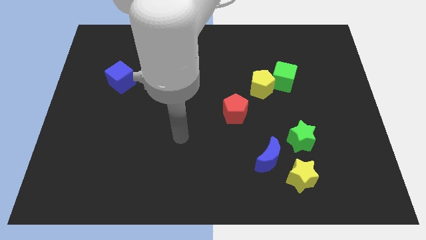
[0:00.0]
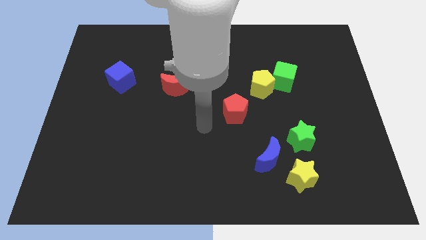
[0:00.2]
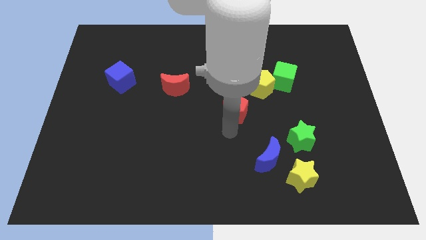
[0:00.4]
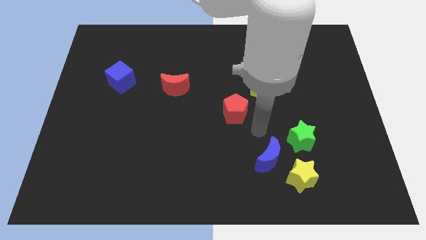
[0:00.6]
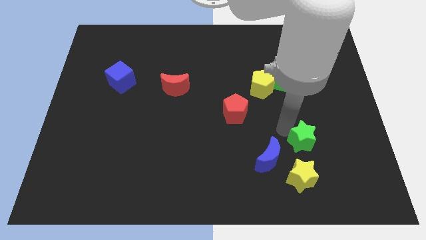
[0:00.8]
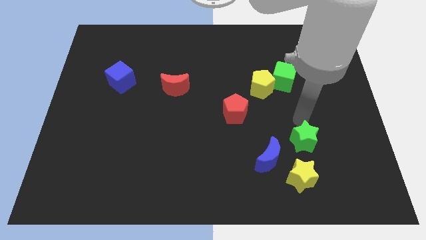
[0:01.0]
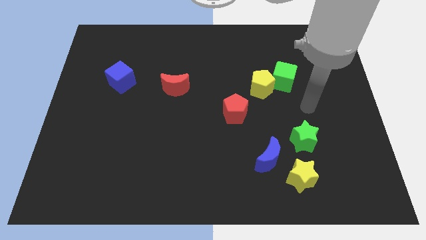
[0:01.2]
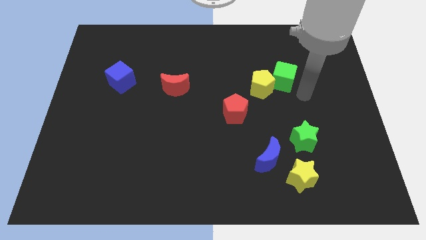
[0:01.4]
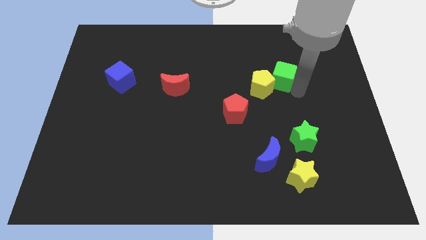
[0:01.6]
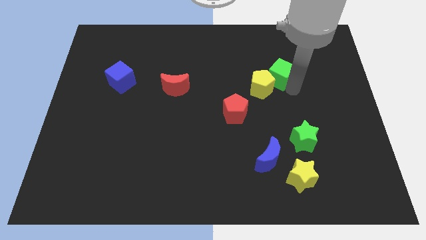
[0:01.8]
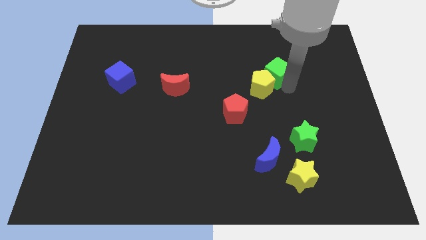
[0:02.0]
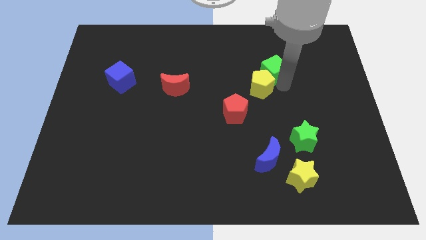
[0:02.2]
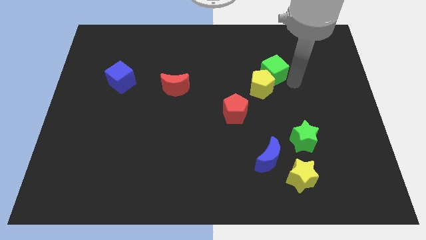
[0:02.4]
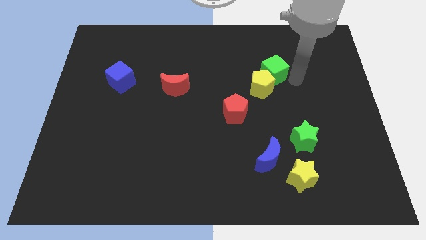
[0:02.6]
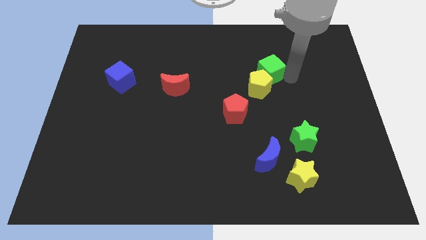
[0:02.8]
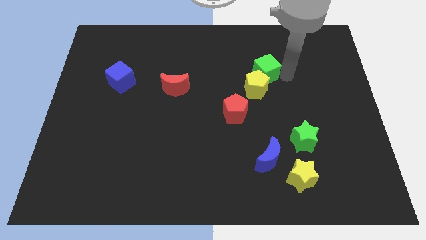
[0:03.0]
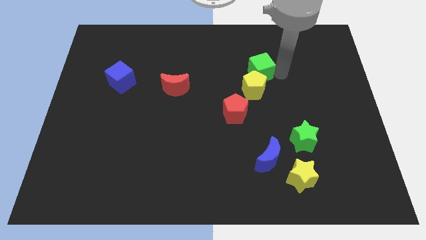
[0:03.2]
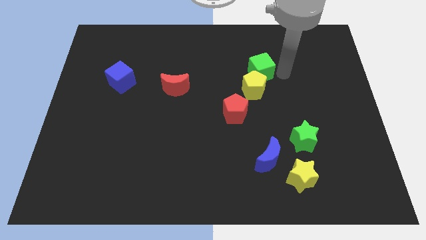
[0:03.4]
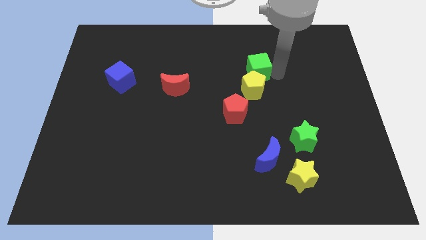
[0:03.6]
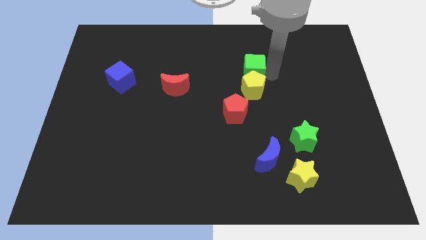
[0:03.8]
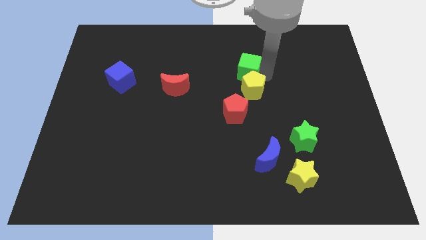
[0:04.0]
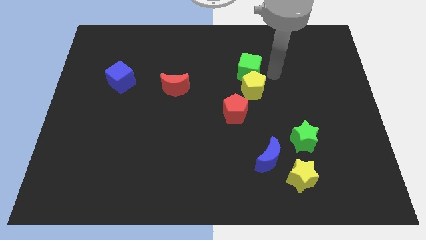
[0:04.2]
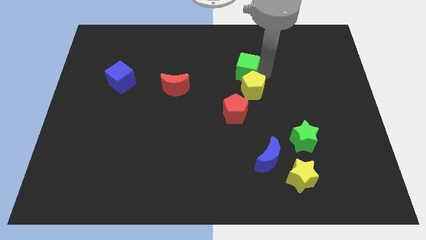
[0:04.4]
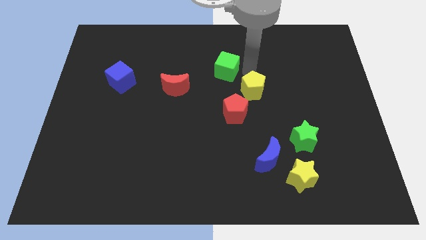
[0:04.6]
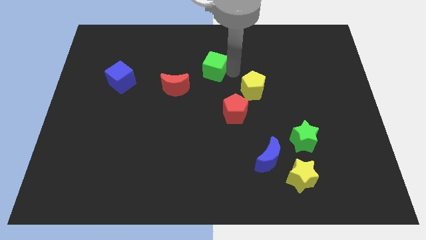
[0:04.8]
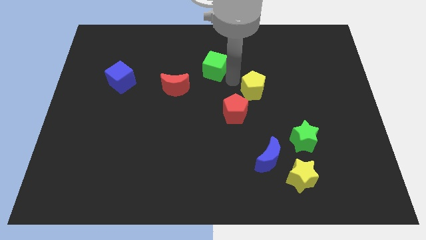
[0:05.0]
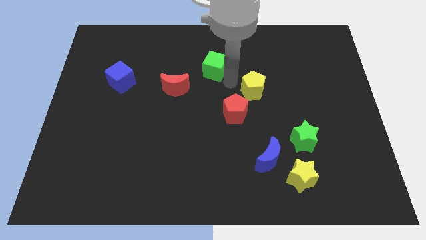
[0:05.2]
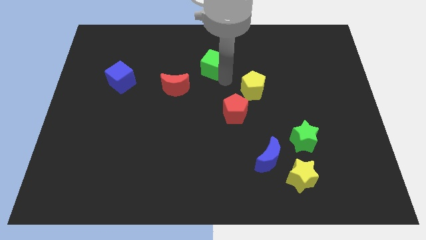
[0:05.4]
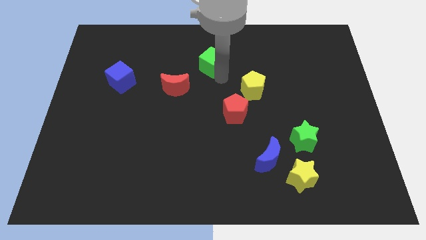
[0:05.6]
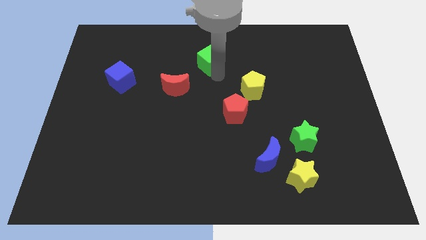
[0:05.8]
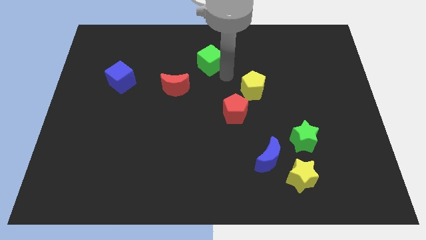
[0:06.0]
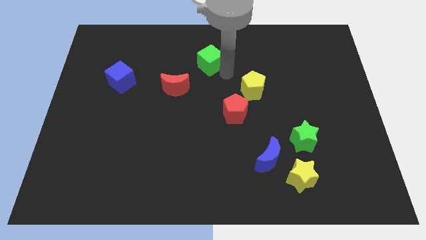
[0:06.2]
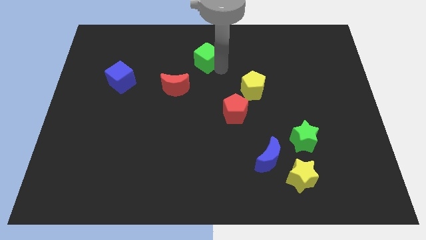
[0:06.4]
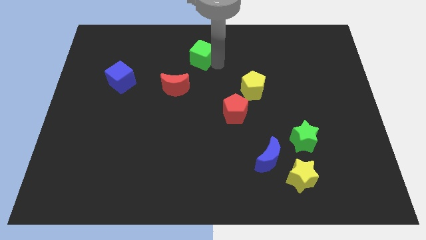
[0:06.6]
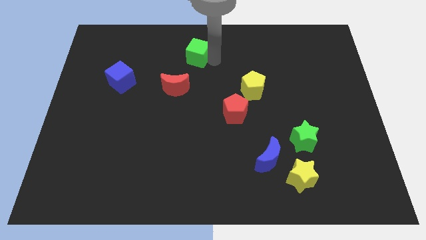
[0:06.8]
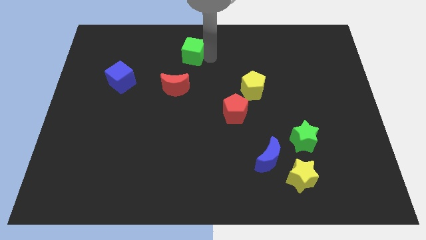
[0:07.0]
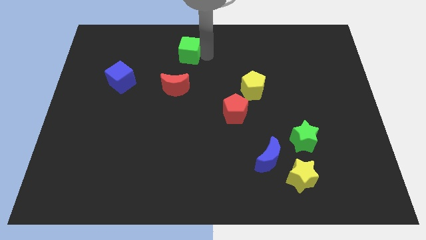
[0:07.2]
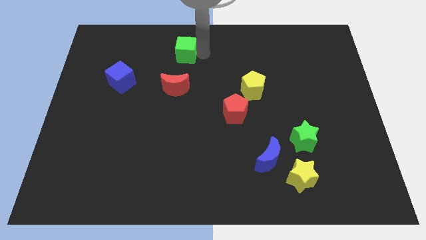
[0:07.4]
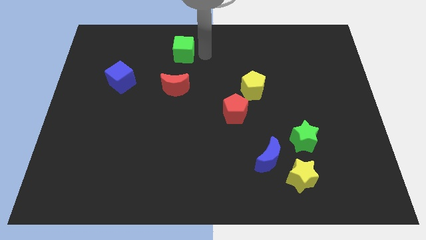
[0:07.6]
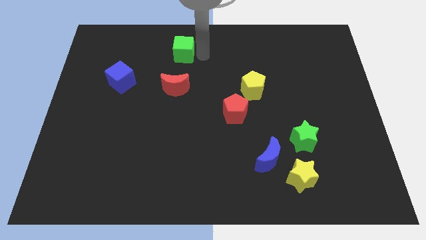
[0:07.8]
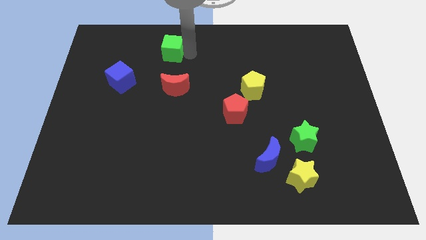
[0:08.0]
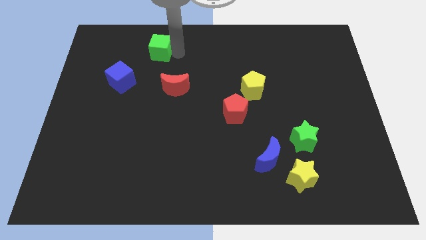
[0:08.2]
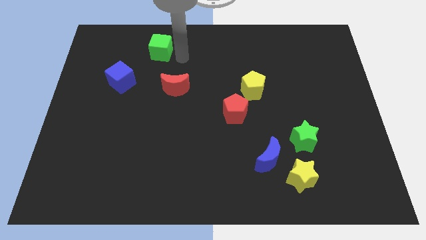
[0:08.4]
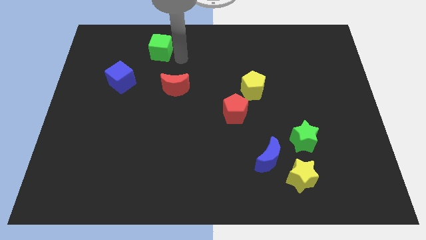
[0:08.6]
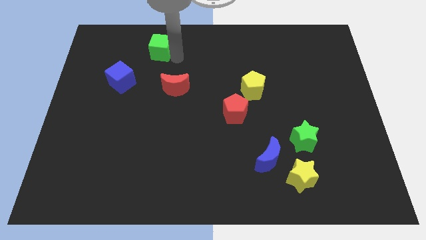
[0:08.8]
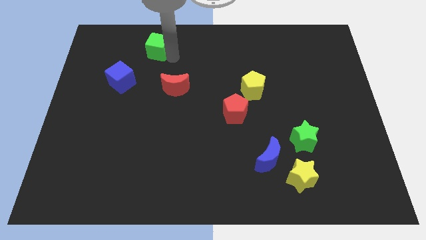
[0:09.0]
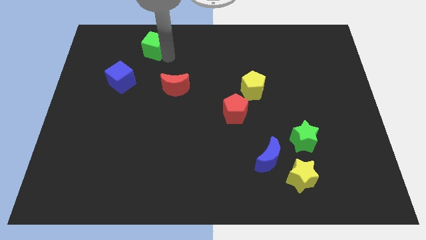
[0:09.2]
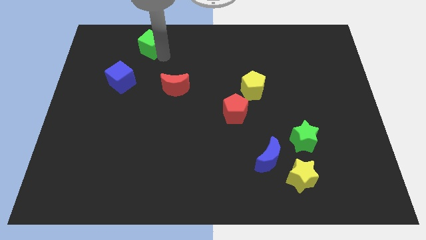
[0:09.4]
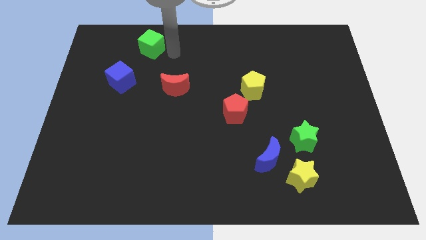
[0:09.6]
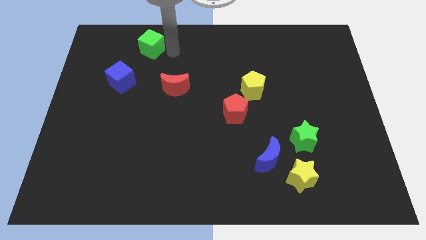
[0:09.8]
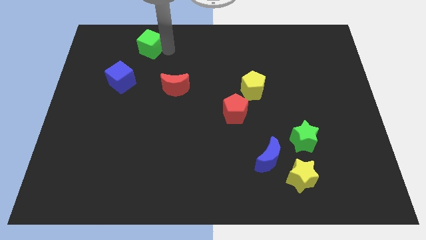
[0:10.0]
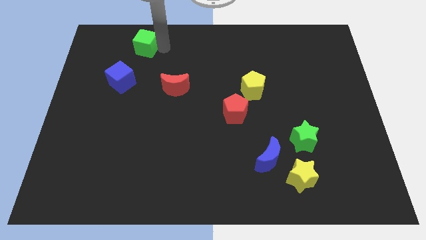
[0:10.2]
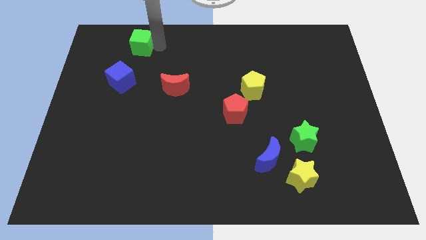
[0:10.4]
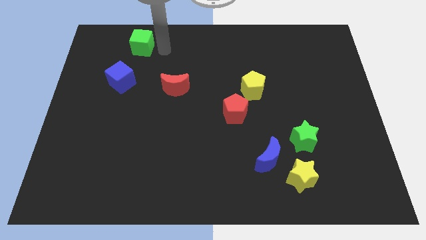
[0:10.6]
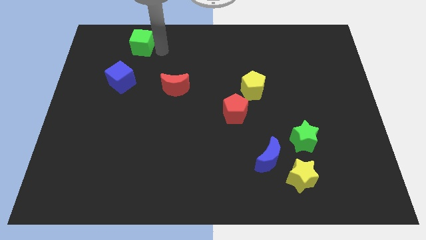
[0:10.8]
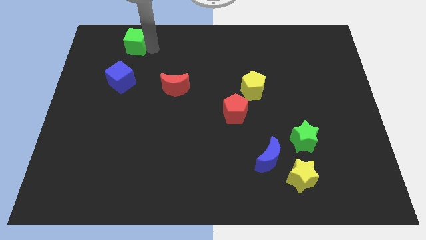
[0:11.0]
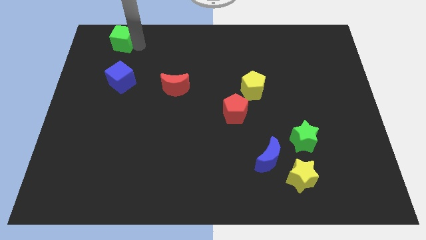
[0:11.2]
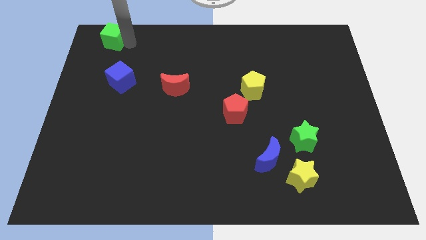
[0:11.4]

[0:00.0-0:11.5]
push the green cube to the top left corner

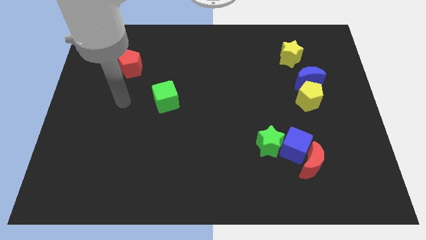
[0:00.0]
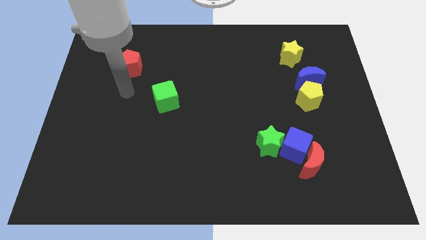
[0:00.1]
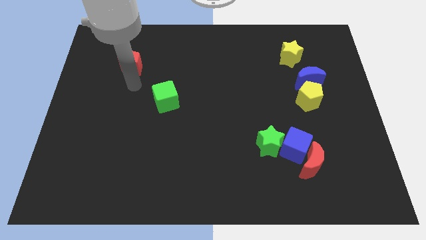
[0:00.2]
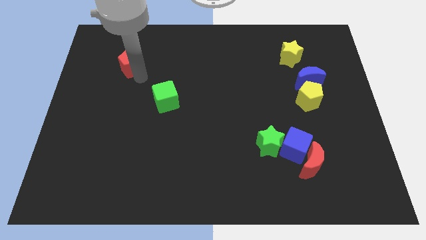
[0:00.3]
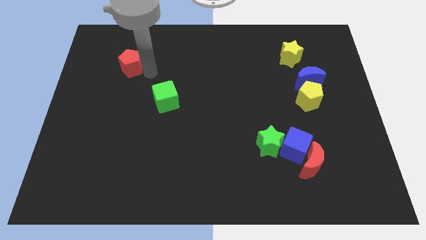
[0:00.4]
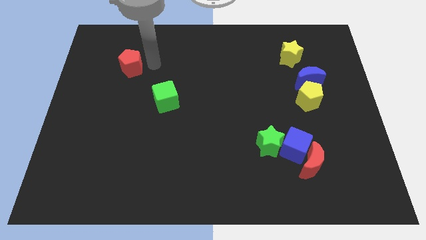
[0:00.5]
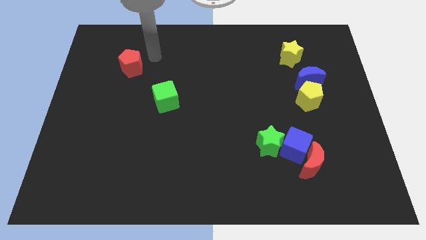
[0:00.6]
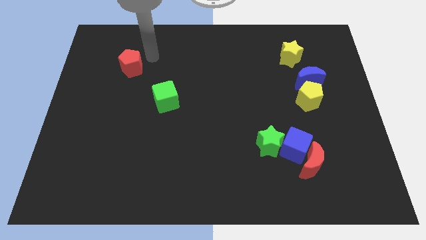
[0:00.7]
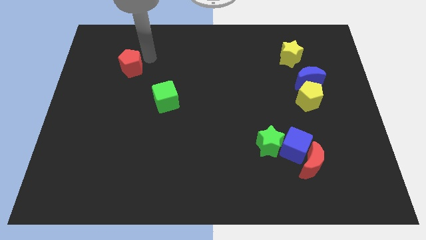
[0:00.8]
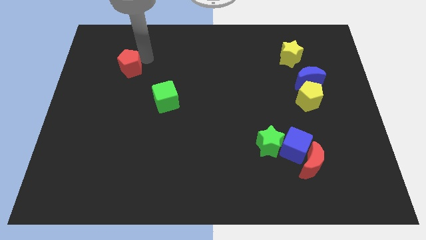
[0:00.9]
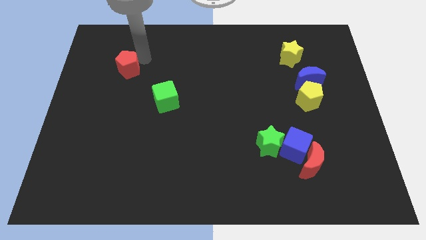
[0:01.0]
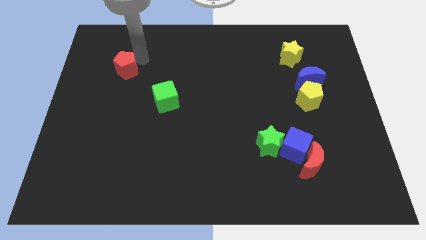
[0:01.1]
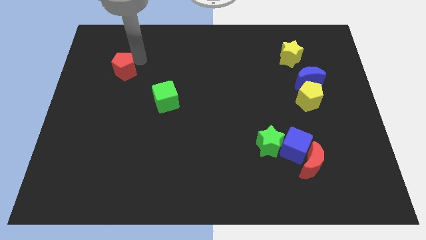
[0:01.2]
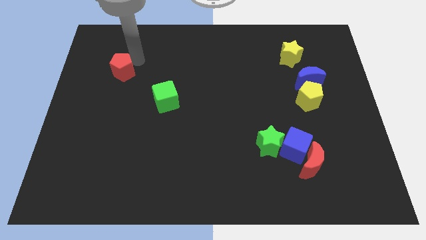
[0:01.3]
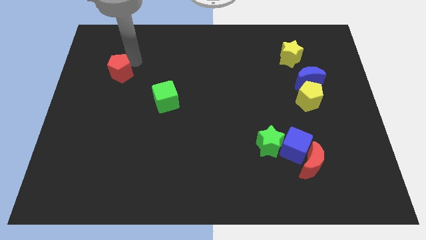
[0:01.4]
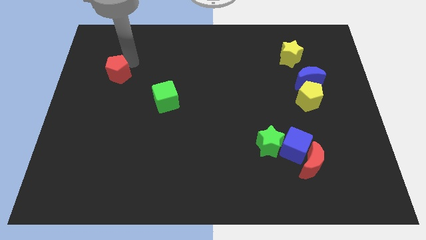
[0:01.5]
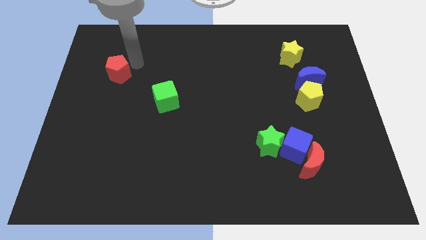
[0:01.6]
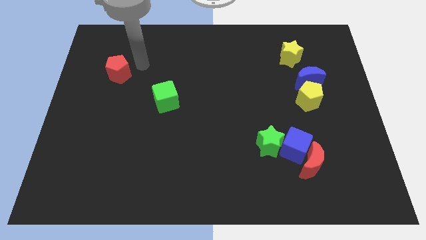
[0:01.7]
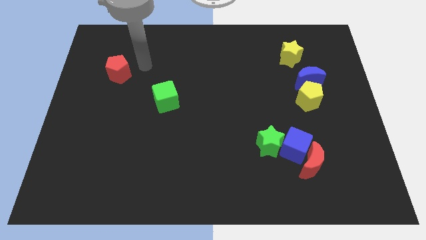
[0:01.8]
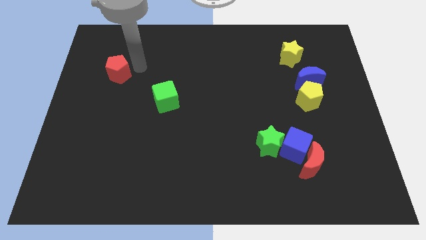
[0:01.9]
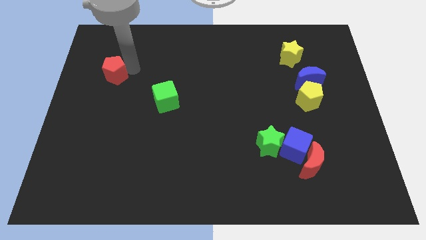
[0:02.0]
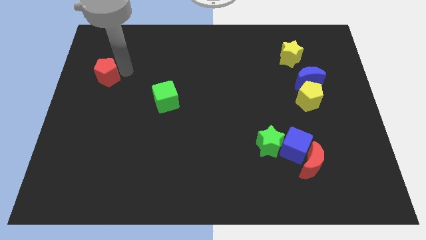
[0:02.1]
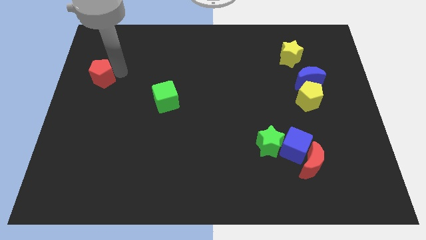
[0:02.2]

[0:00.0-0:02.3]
move the red pentagon to the left side

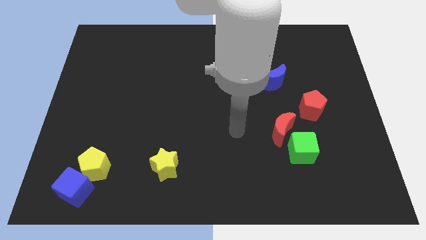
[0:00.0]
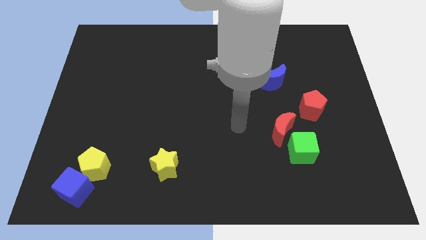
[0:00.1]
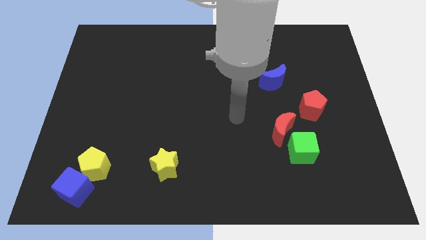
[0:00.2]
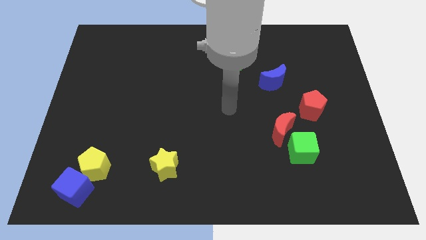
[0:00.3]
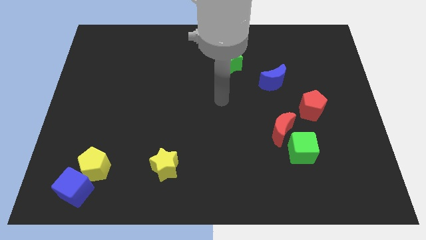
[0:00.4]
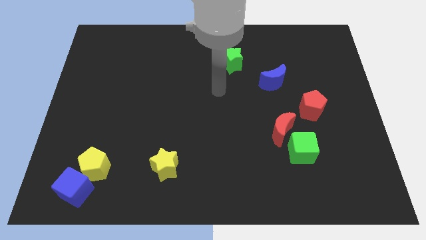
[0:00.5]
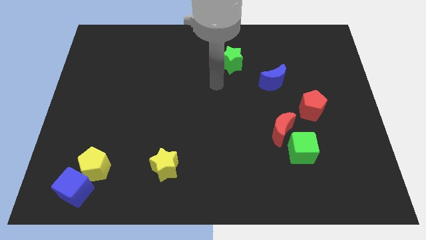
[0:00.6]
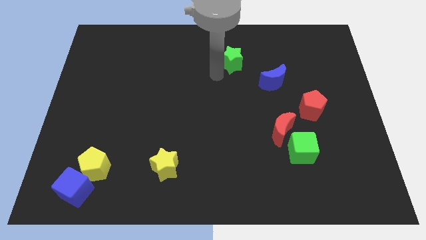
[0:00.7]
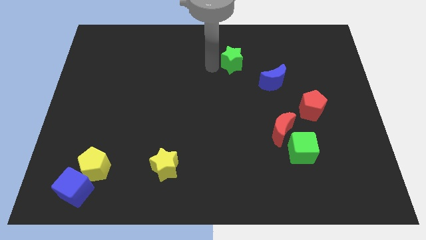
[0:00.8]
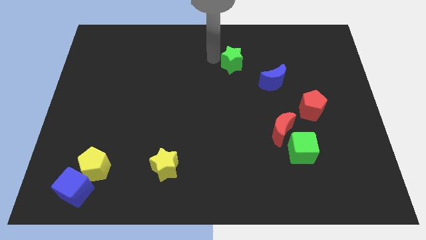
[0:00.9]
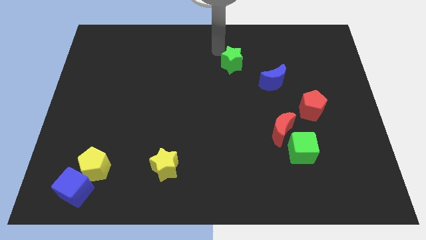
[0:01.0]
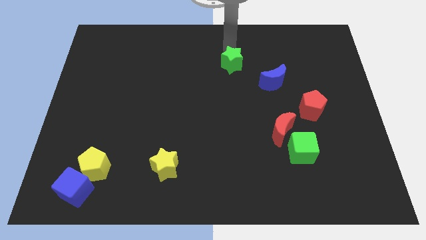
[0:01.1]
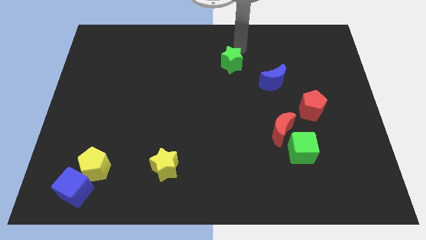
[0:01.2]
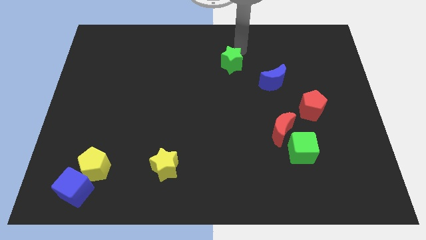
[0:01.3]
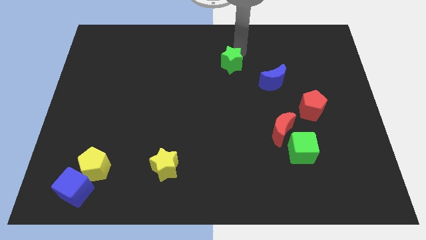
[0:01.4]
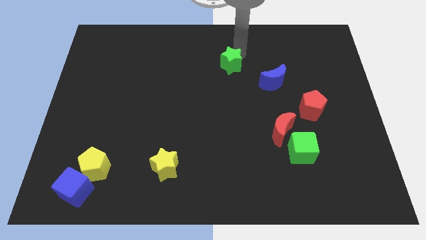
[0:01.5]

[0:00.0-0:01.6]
push the green star to the middle of the board
